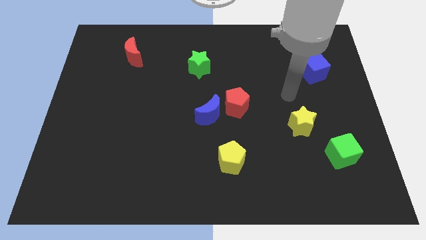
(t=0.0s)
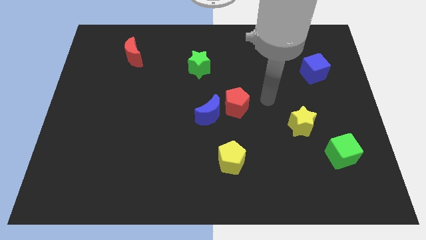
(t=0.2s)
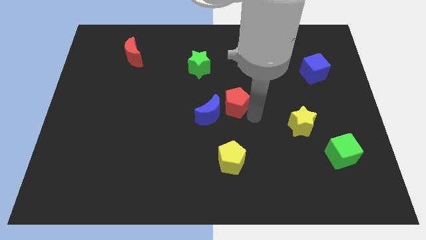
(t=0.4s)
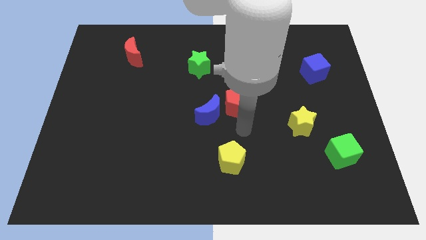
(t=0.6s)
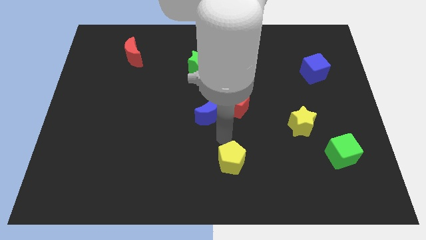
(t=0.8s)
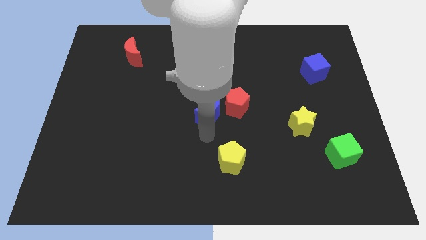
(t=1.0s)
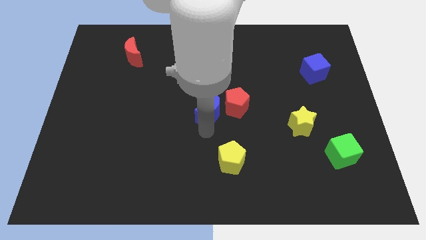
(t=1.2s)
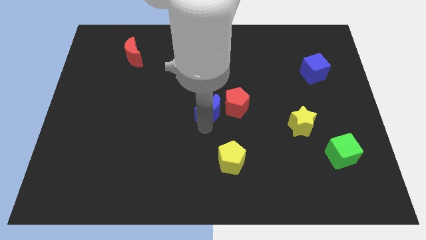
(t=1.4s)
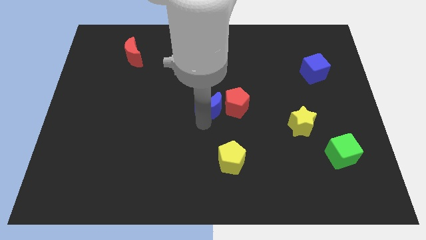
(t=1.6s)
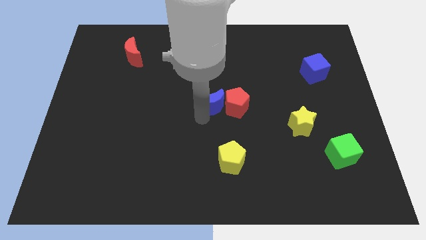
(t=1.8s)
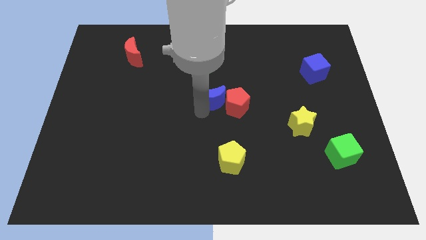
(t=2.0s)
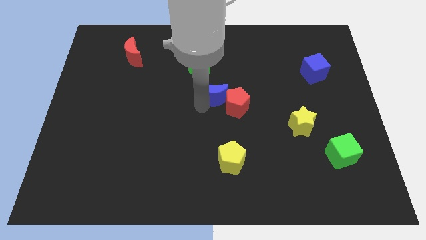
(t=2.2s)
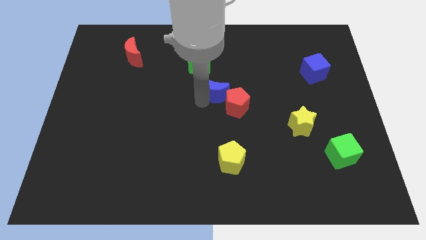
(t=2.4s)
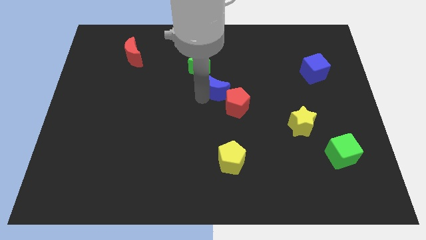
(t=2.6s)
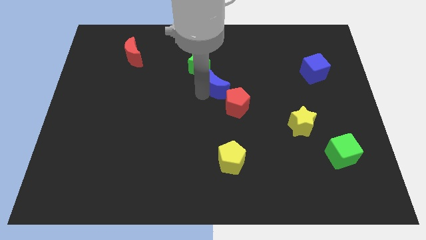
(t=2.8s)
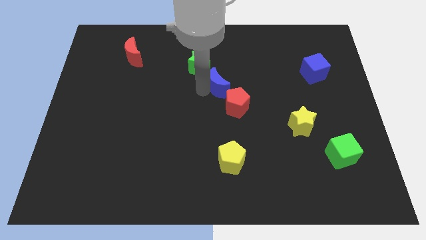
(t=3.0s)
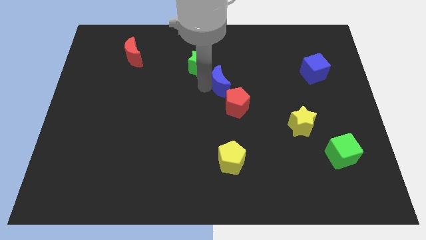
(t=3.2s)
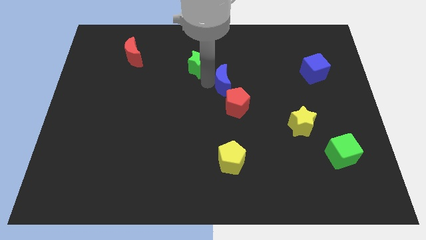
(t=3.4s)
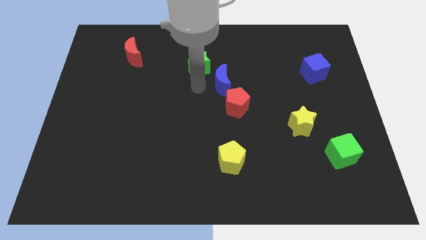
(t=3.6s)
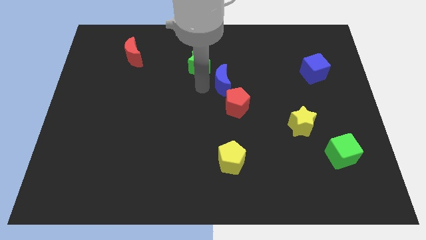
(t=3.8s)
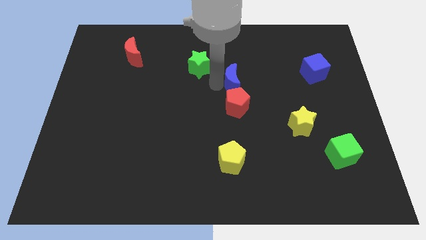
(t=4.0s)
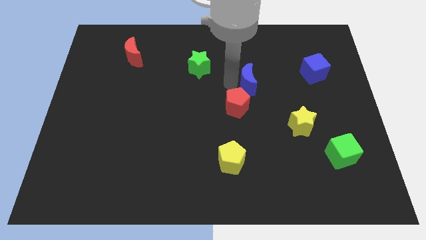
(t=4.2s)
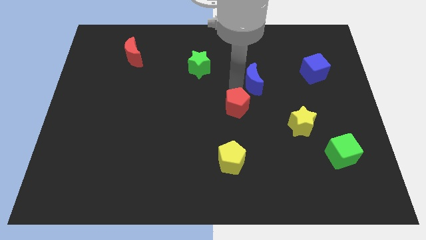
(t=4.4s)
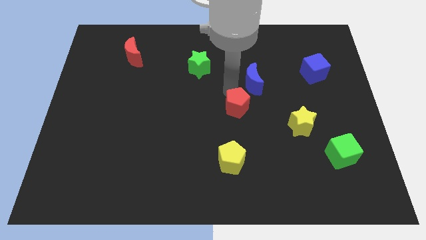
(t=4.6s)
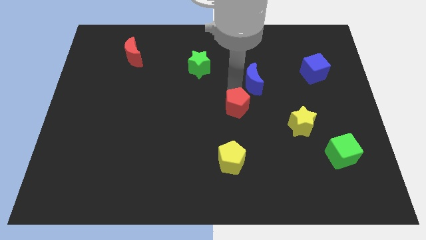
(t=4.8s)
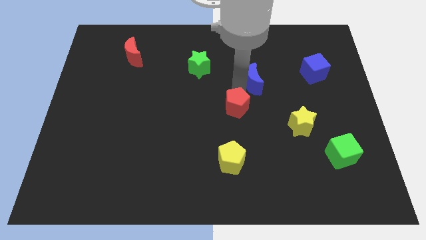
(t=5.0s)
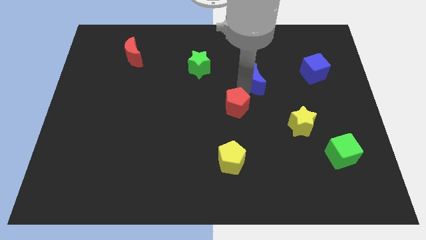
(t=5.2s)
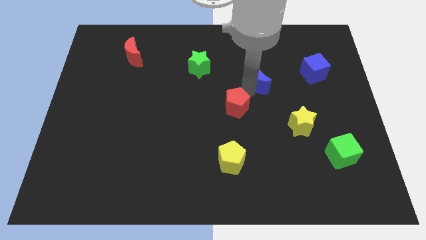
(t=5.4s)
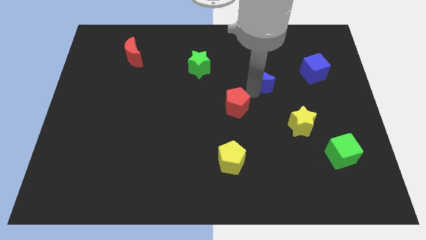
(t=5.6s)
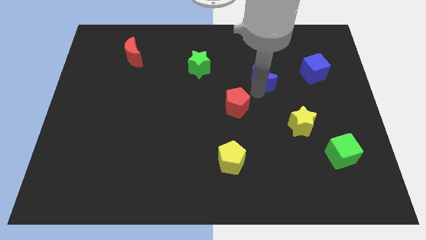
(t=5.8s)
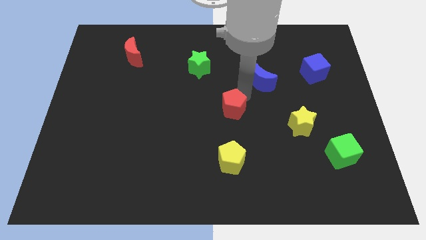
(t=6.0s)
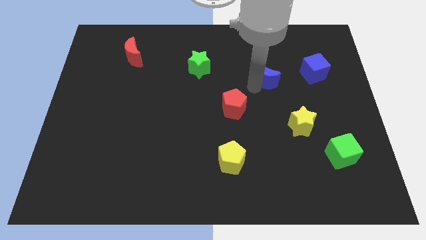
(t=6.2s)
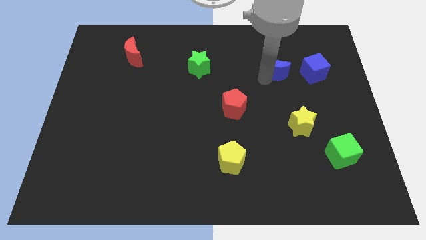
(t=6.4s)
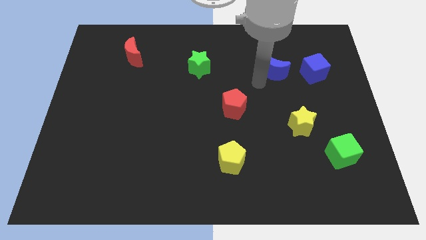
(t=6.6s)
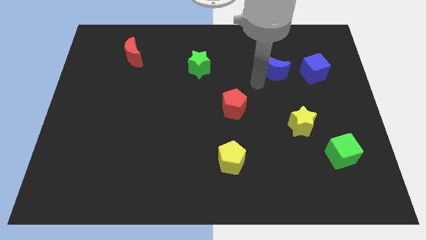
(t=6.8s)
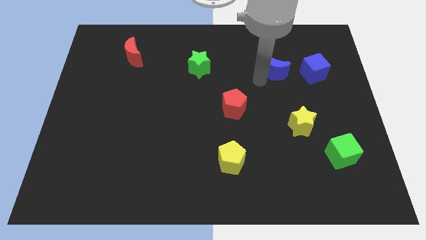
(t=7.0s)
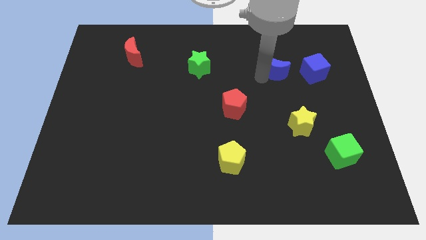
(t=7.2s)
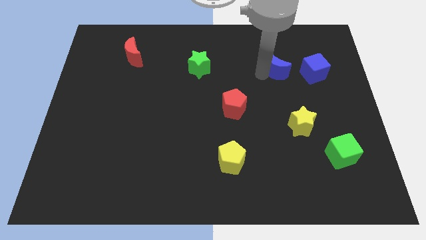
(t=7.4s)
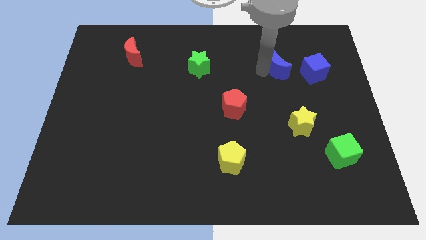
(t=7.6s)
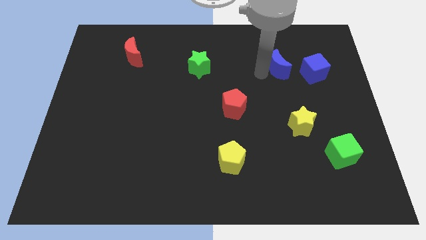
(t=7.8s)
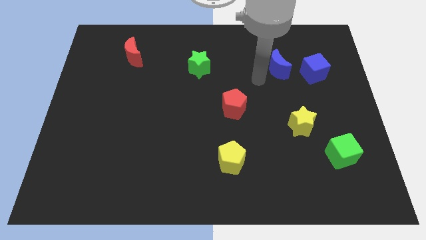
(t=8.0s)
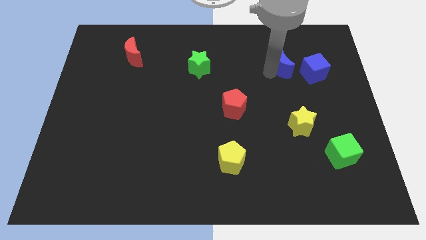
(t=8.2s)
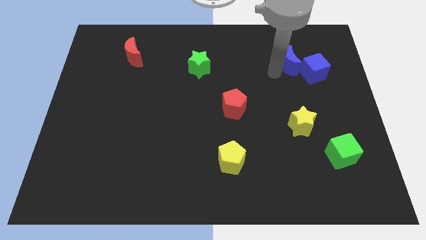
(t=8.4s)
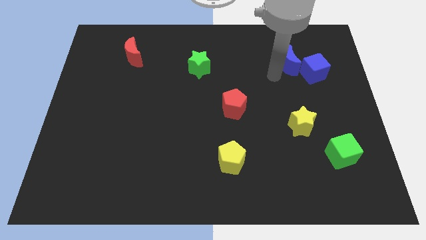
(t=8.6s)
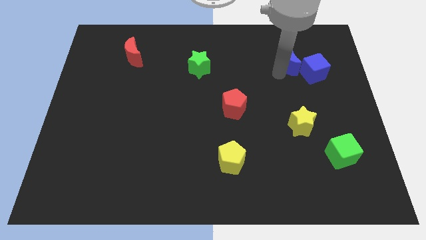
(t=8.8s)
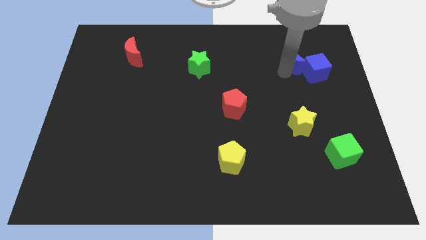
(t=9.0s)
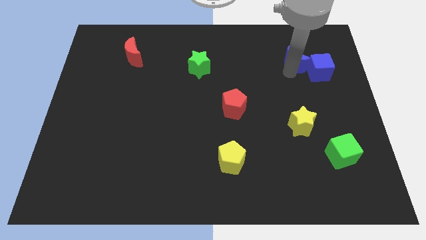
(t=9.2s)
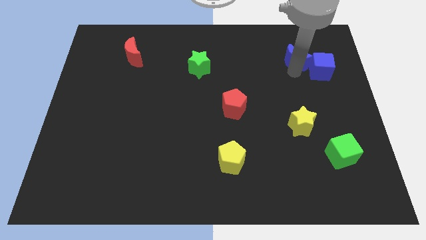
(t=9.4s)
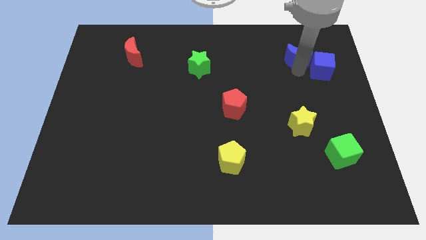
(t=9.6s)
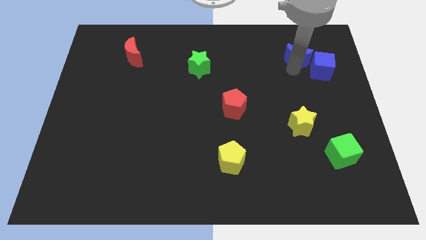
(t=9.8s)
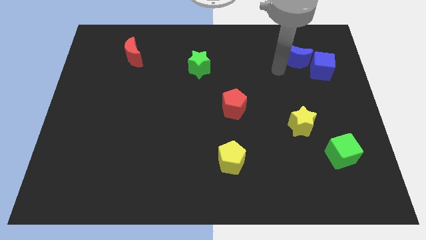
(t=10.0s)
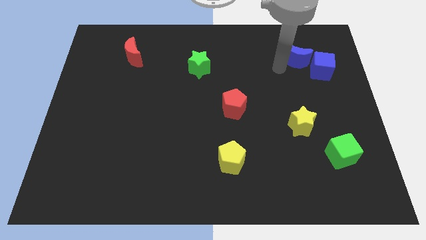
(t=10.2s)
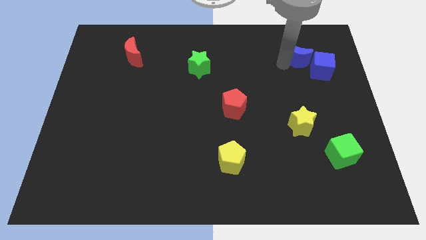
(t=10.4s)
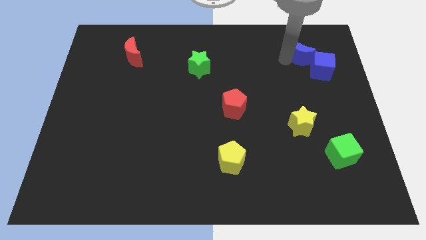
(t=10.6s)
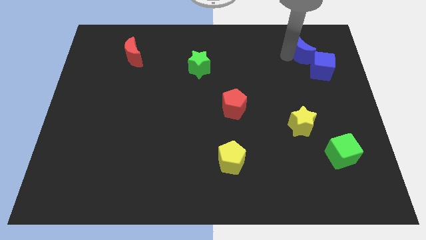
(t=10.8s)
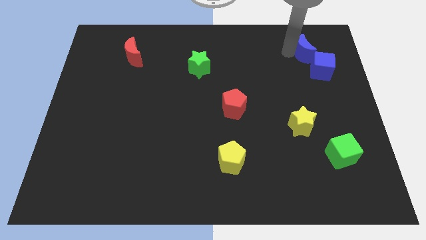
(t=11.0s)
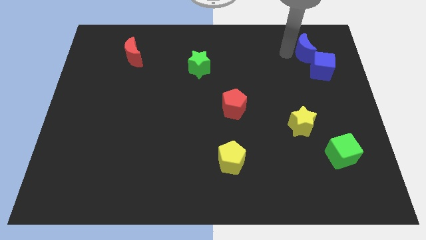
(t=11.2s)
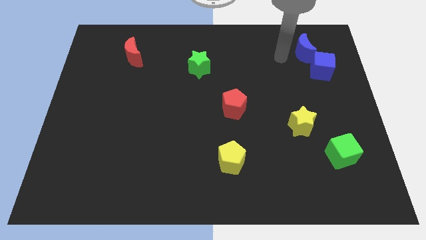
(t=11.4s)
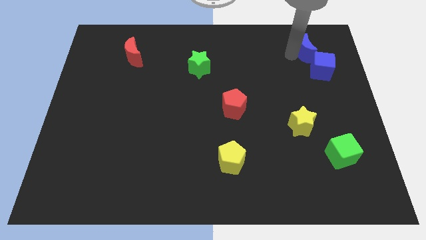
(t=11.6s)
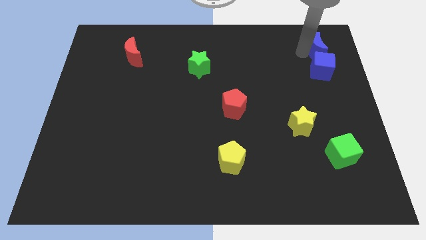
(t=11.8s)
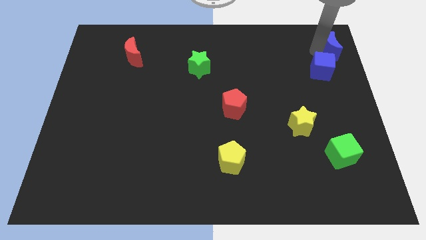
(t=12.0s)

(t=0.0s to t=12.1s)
push the blue moon to the upper right corner
